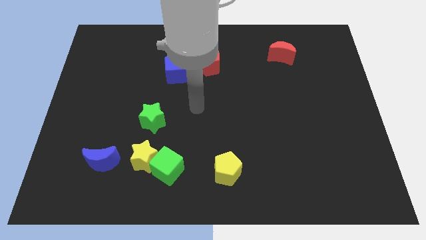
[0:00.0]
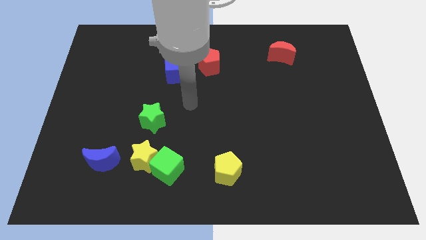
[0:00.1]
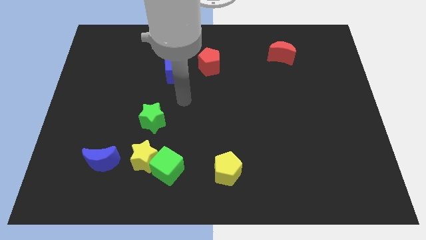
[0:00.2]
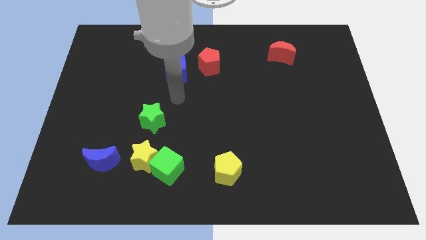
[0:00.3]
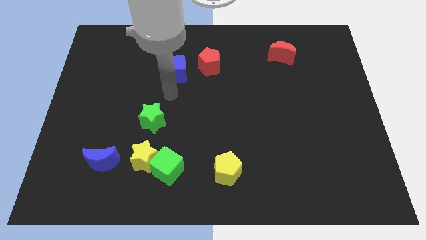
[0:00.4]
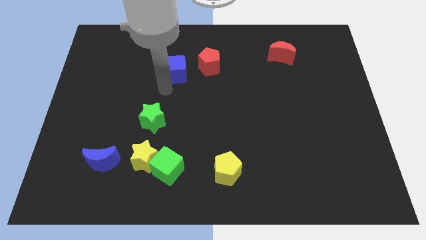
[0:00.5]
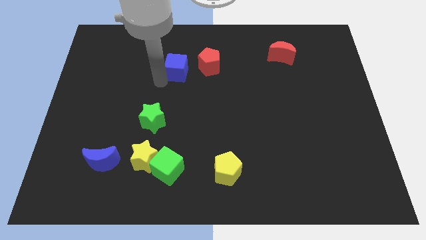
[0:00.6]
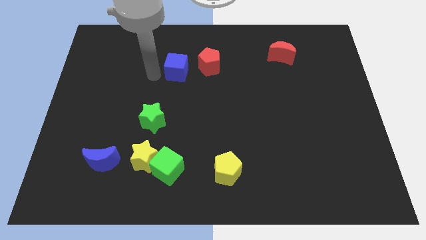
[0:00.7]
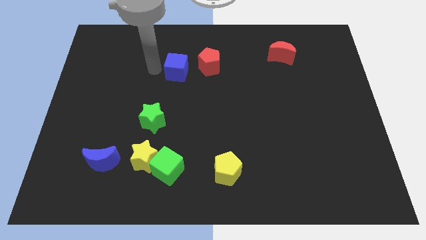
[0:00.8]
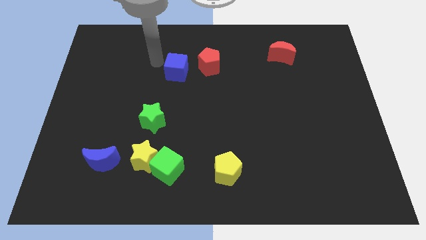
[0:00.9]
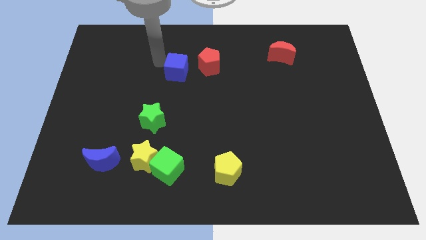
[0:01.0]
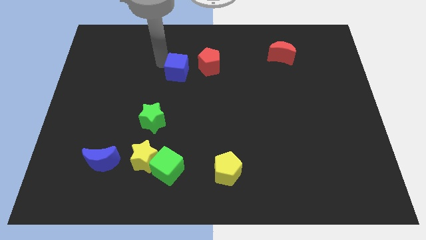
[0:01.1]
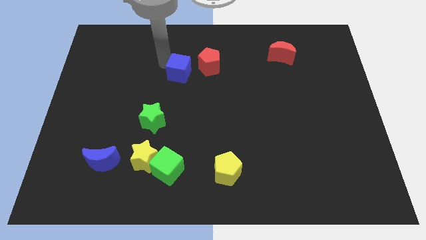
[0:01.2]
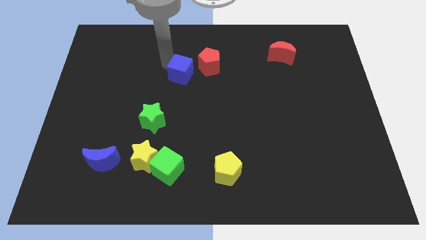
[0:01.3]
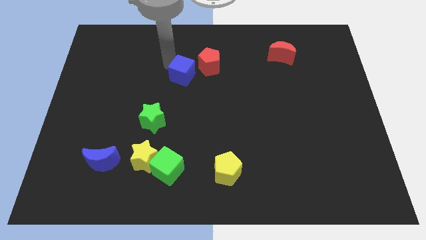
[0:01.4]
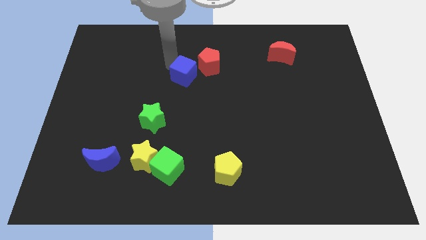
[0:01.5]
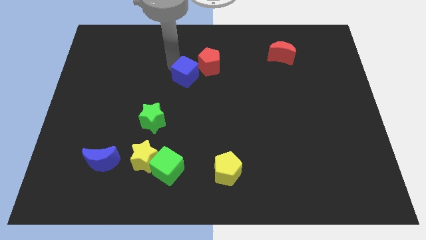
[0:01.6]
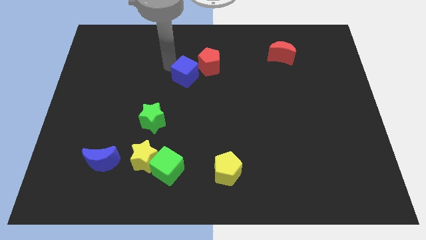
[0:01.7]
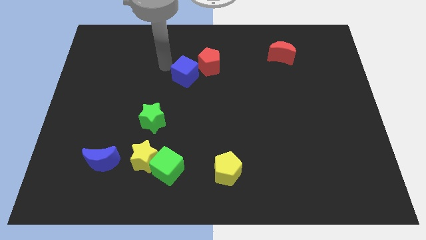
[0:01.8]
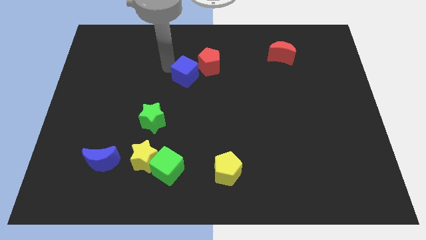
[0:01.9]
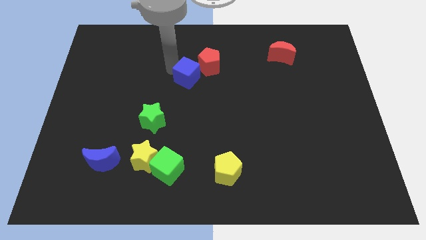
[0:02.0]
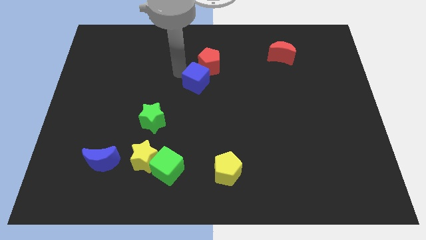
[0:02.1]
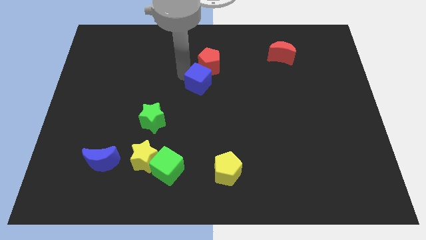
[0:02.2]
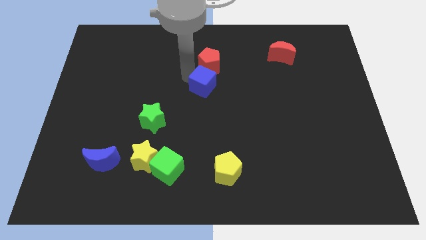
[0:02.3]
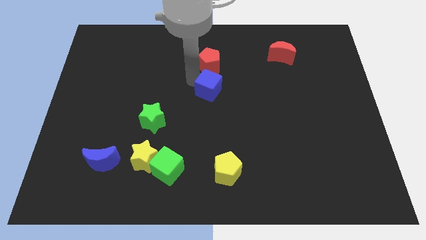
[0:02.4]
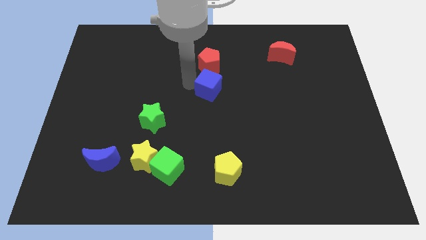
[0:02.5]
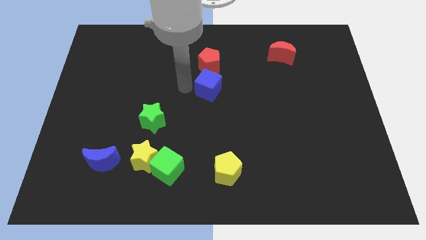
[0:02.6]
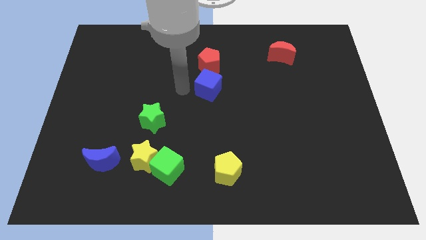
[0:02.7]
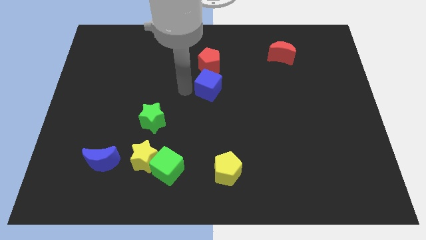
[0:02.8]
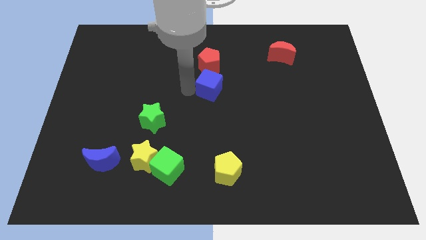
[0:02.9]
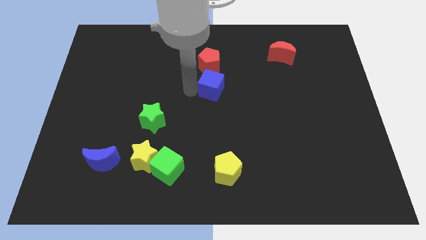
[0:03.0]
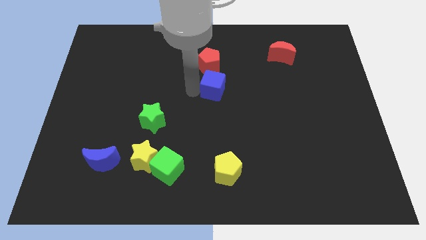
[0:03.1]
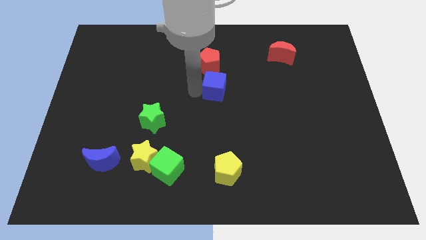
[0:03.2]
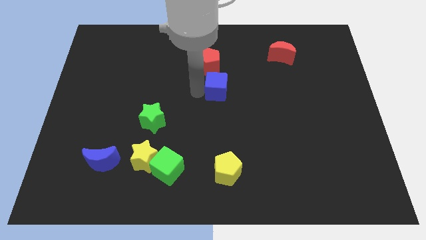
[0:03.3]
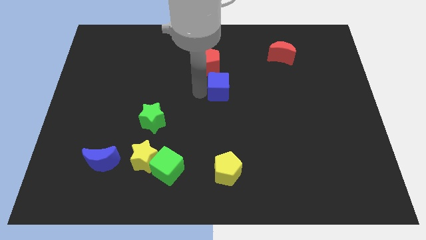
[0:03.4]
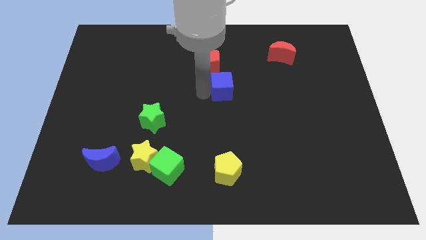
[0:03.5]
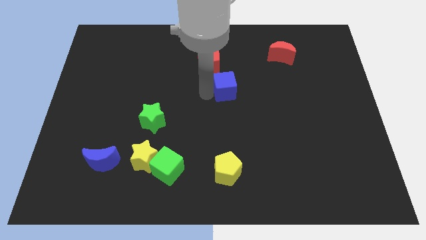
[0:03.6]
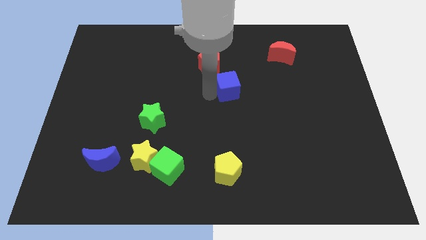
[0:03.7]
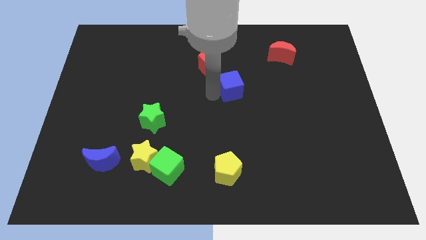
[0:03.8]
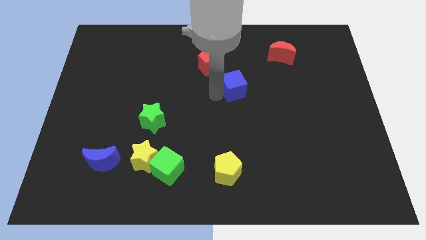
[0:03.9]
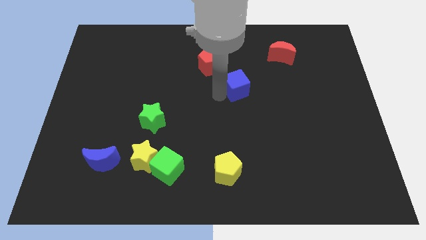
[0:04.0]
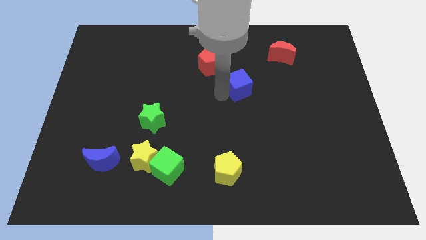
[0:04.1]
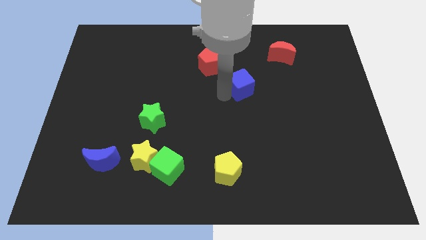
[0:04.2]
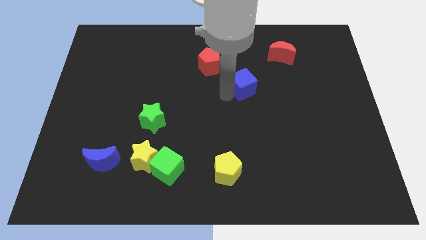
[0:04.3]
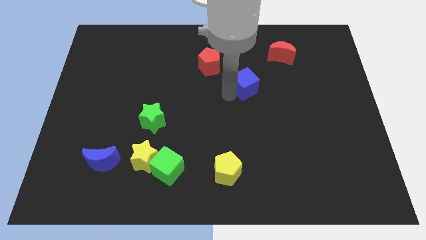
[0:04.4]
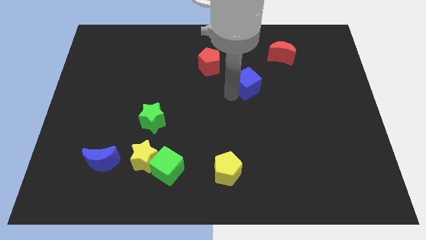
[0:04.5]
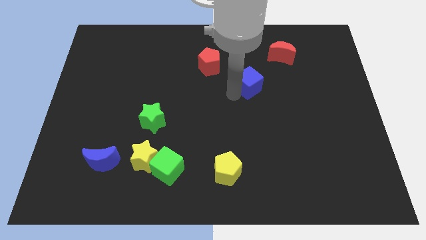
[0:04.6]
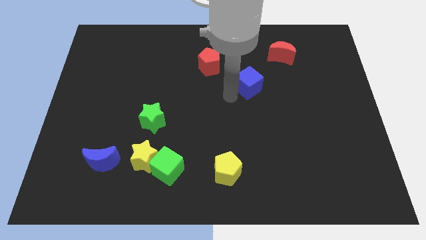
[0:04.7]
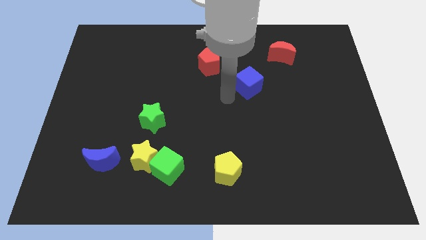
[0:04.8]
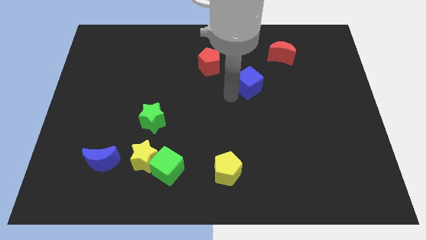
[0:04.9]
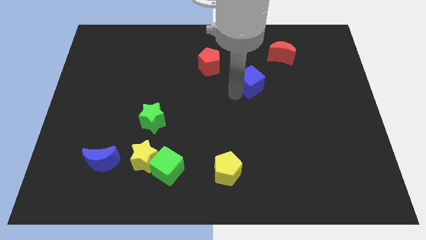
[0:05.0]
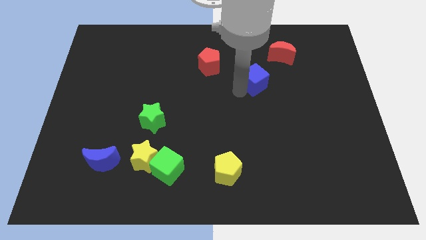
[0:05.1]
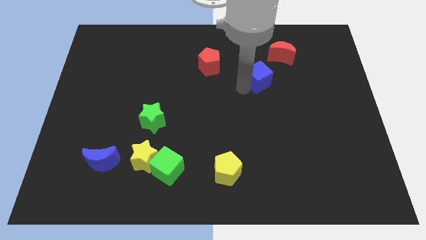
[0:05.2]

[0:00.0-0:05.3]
push the blue cube right

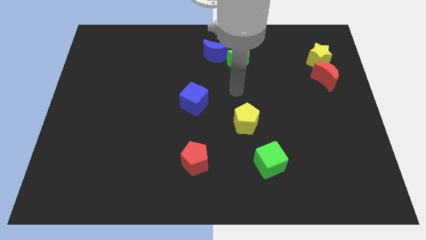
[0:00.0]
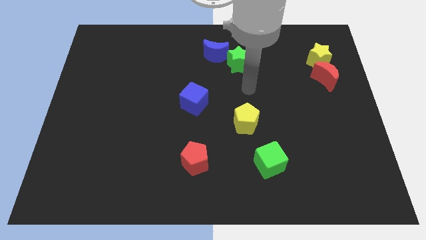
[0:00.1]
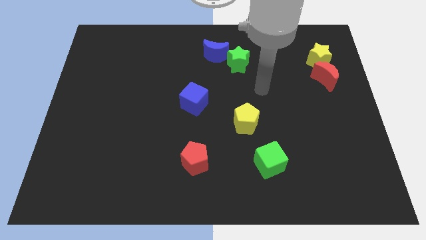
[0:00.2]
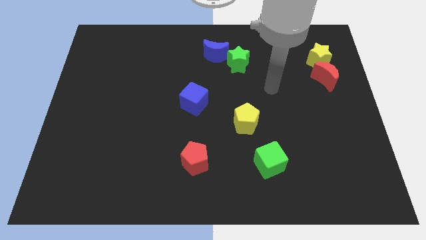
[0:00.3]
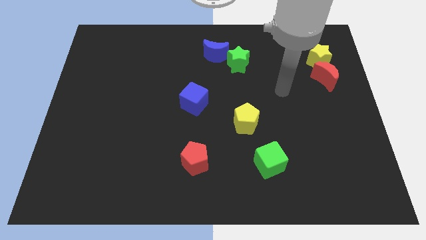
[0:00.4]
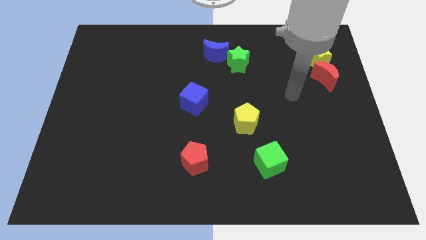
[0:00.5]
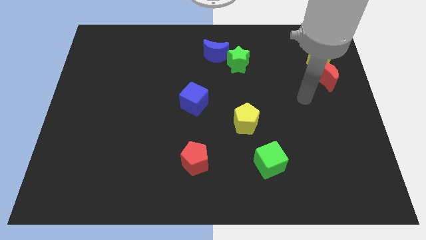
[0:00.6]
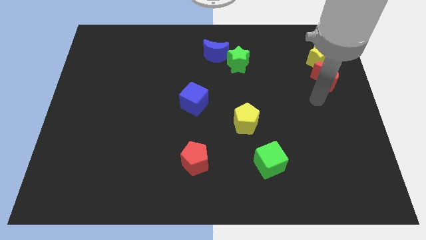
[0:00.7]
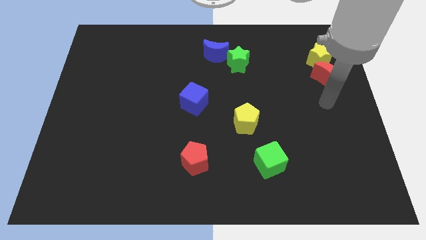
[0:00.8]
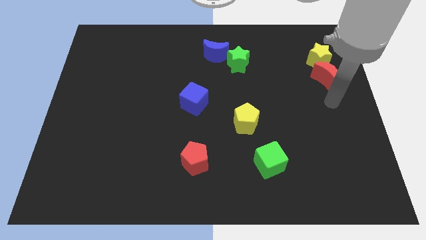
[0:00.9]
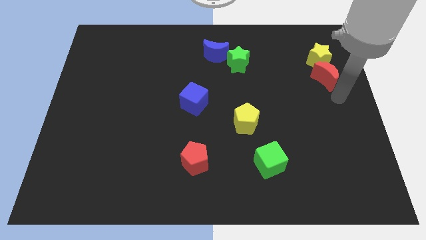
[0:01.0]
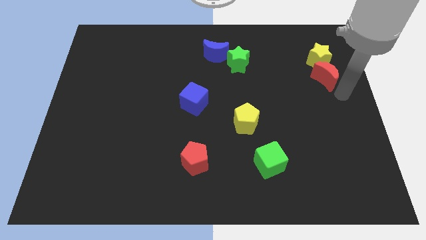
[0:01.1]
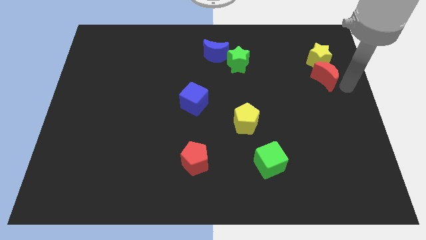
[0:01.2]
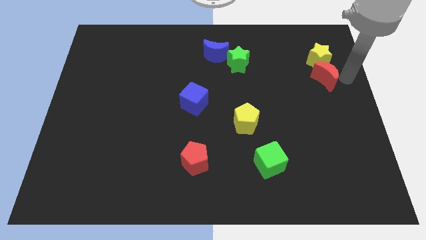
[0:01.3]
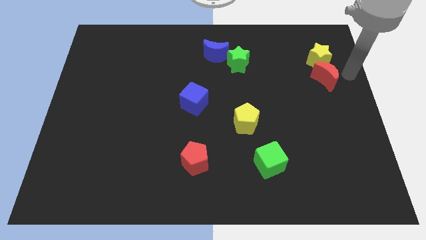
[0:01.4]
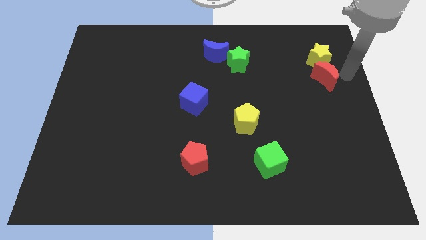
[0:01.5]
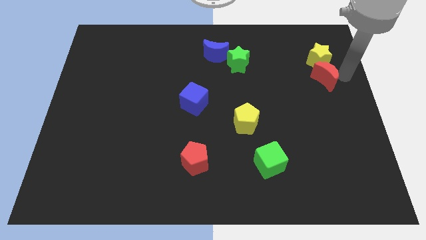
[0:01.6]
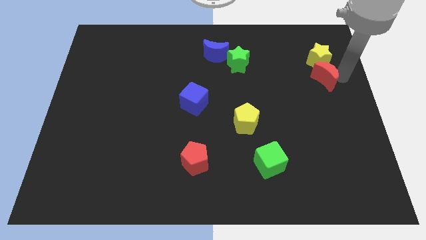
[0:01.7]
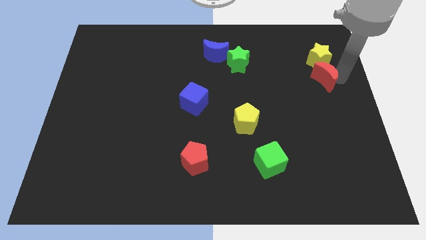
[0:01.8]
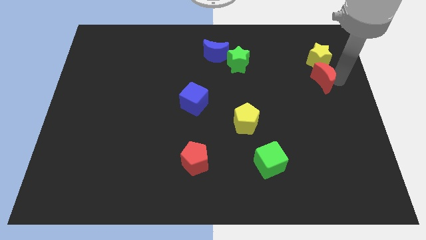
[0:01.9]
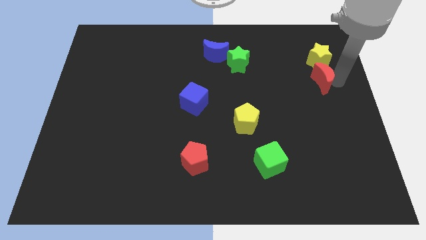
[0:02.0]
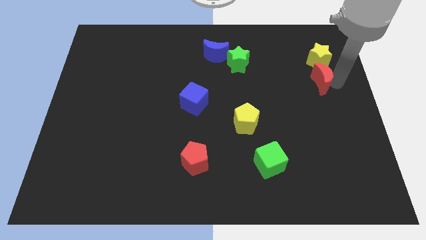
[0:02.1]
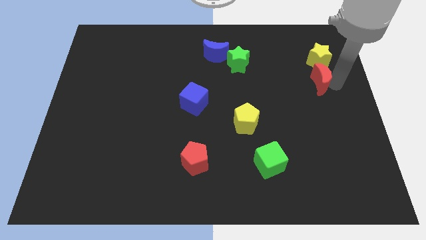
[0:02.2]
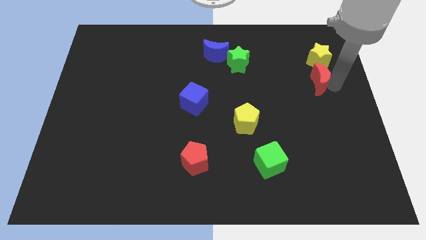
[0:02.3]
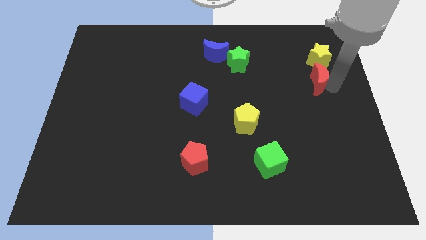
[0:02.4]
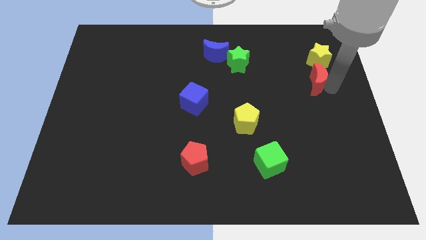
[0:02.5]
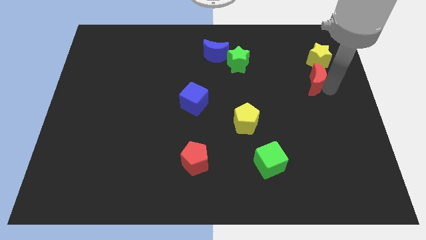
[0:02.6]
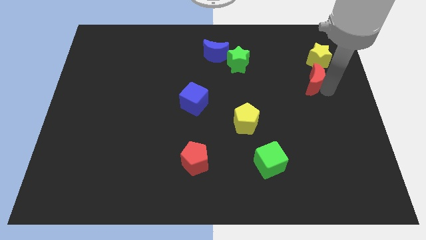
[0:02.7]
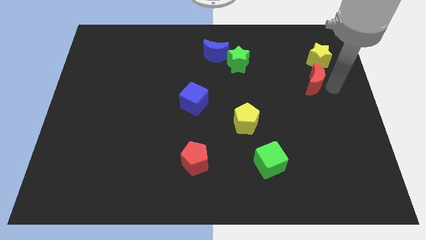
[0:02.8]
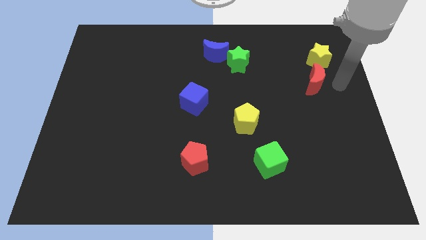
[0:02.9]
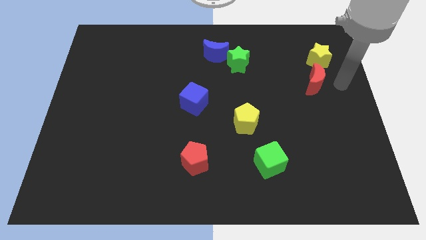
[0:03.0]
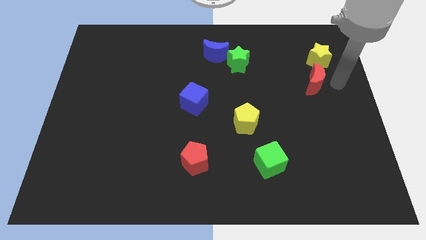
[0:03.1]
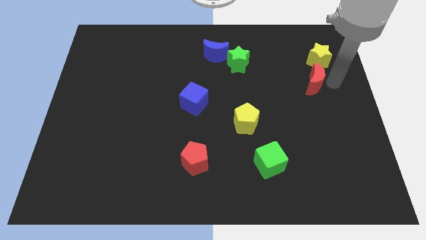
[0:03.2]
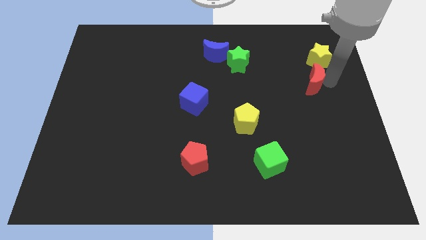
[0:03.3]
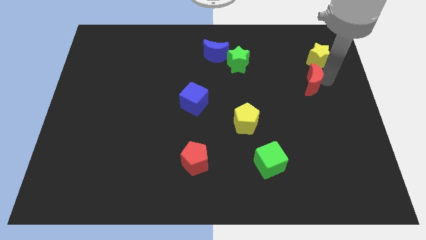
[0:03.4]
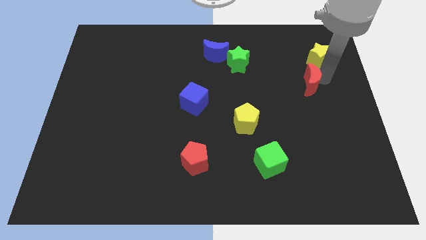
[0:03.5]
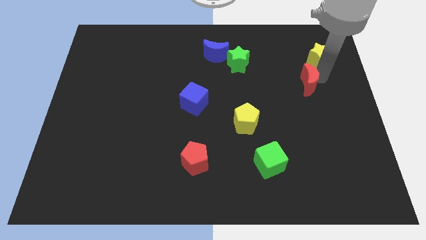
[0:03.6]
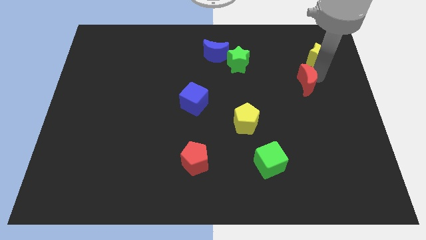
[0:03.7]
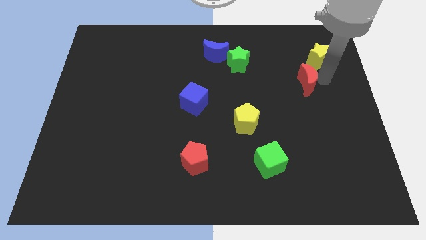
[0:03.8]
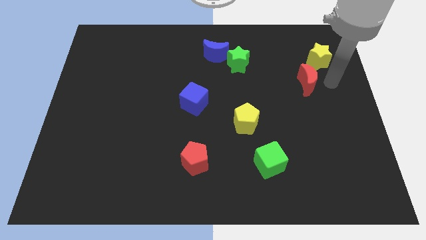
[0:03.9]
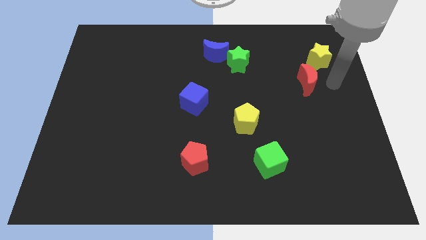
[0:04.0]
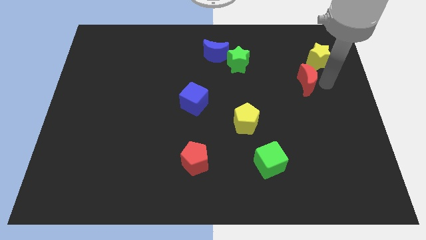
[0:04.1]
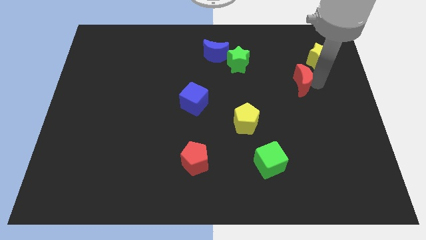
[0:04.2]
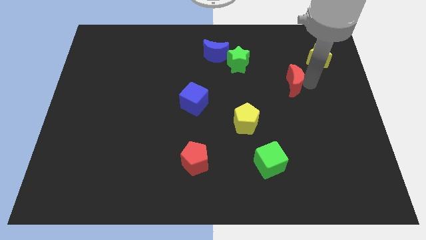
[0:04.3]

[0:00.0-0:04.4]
slightly move the red moon to the left
